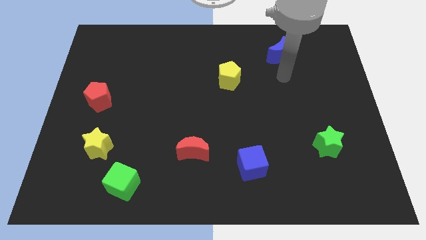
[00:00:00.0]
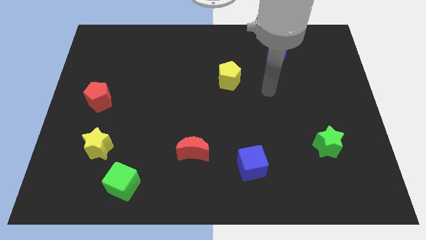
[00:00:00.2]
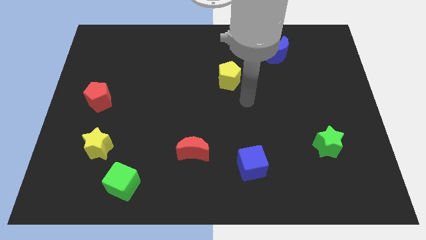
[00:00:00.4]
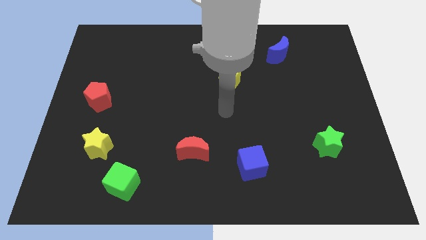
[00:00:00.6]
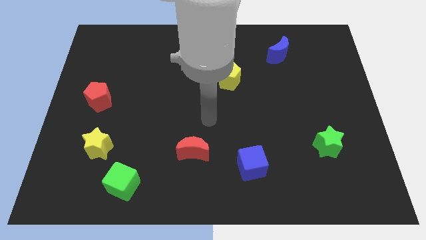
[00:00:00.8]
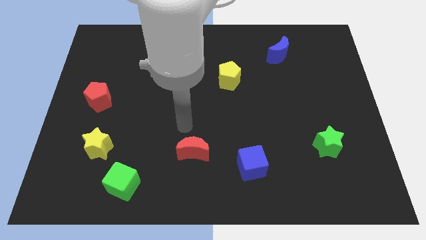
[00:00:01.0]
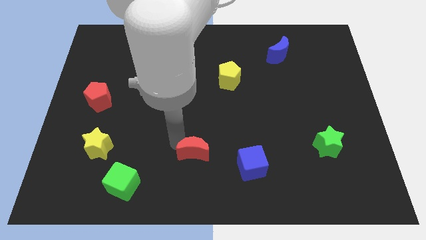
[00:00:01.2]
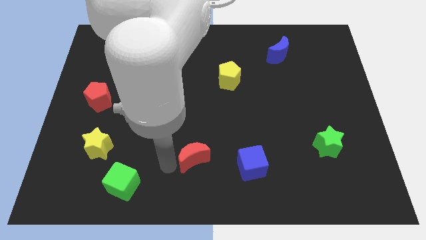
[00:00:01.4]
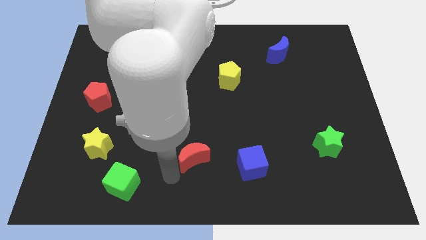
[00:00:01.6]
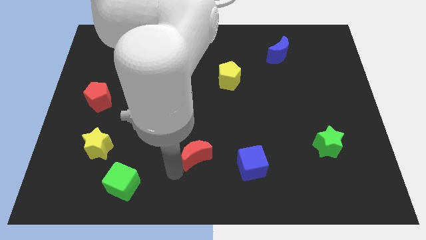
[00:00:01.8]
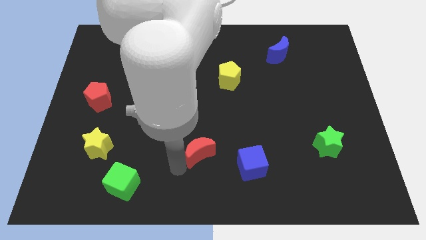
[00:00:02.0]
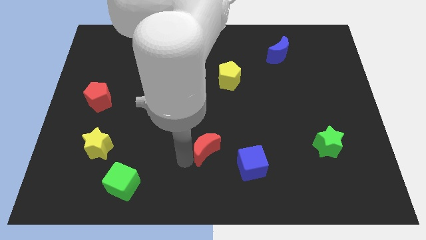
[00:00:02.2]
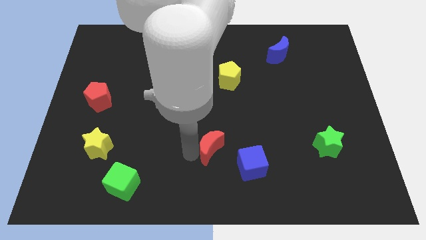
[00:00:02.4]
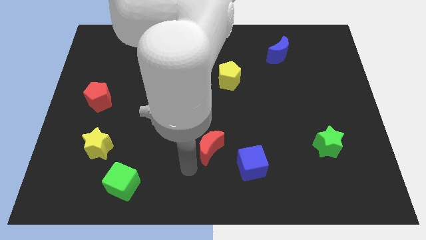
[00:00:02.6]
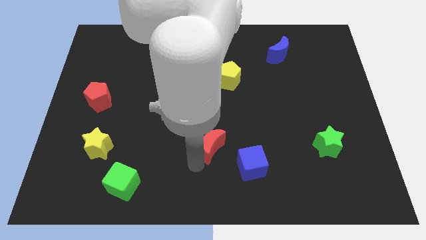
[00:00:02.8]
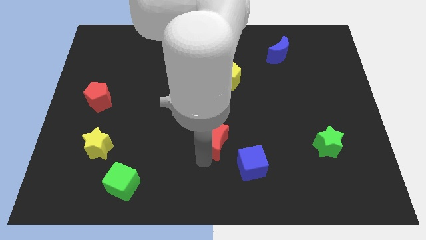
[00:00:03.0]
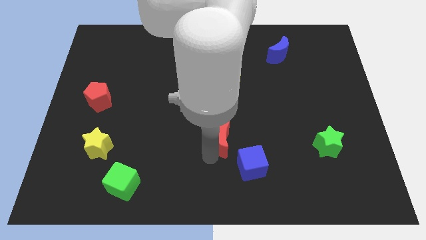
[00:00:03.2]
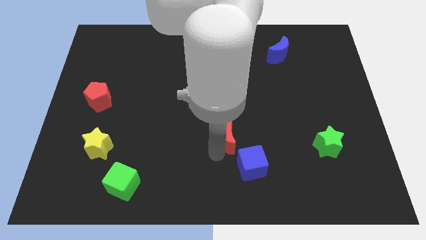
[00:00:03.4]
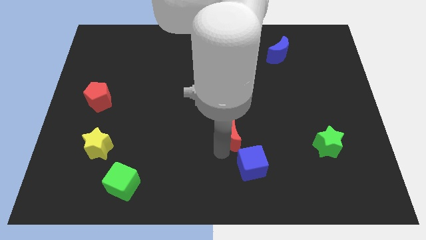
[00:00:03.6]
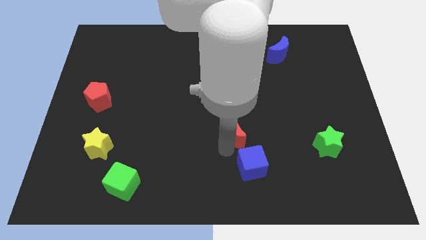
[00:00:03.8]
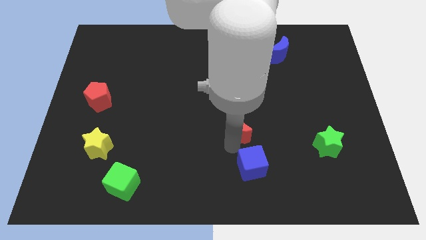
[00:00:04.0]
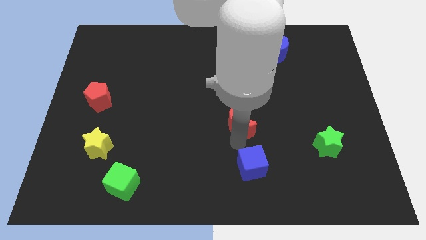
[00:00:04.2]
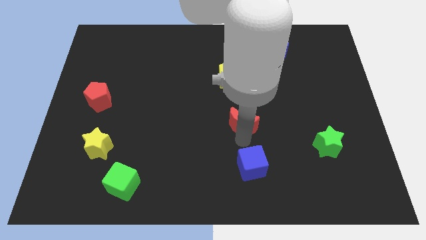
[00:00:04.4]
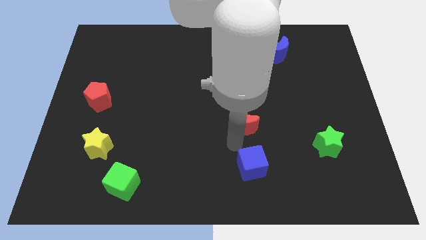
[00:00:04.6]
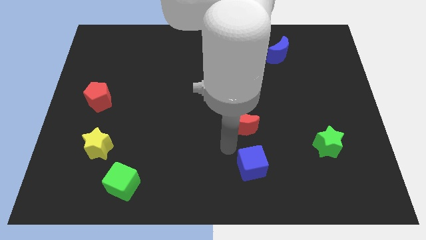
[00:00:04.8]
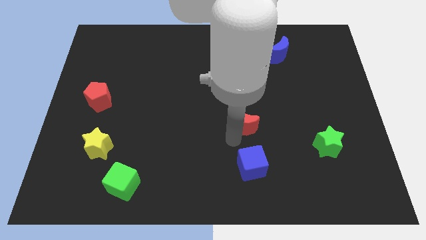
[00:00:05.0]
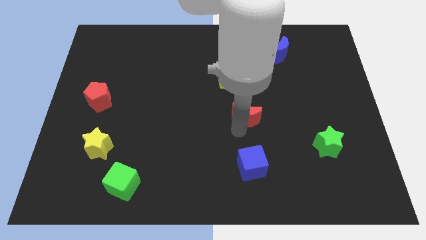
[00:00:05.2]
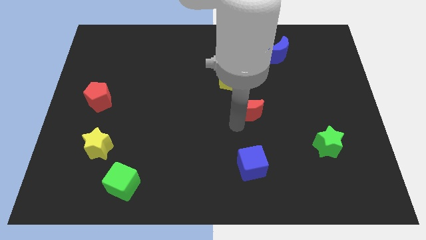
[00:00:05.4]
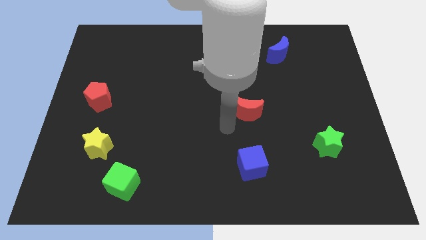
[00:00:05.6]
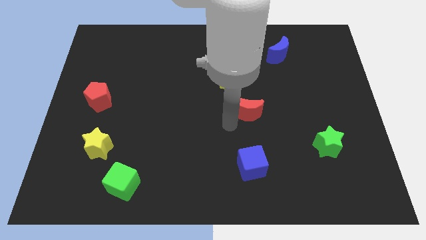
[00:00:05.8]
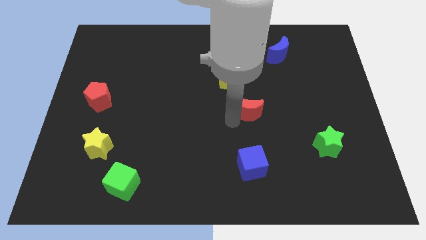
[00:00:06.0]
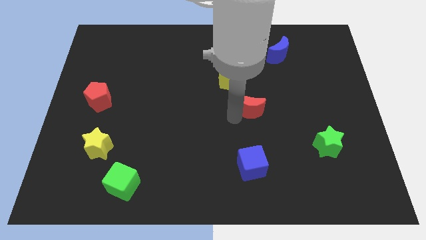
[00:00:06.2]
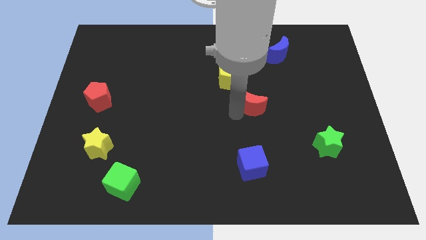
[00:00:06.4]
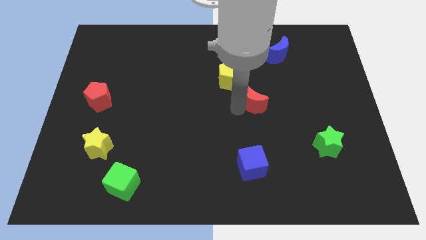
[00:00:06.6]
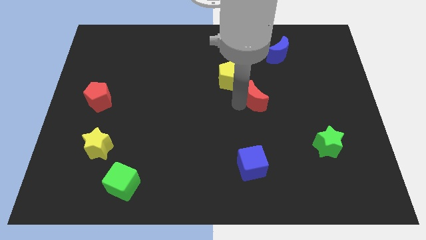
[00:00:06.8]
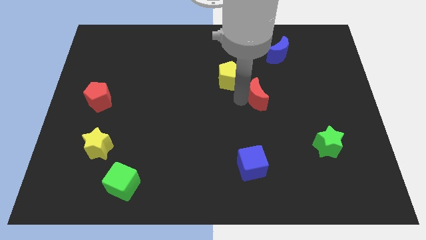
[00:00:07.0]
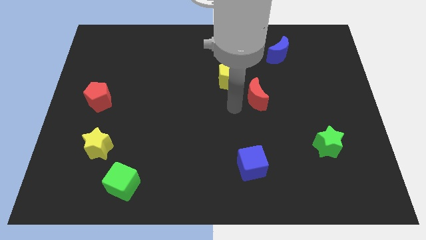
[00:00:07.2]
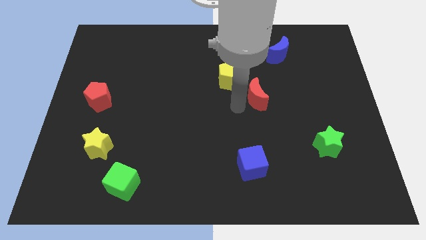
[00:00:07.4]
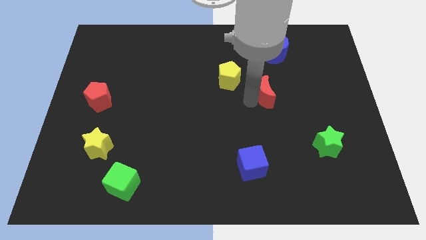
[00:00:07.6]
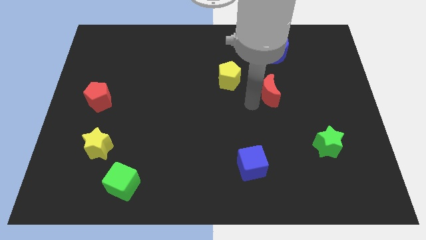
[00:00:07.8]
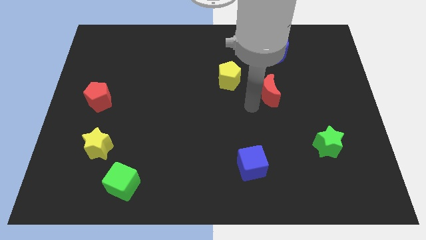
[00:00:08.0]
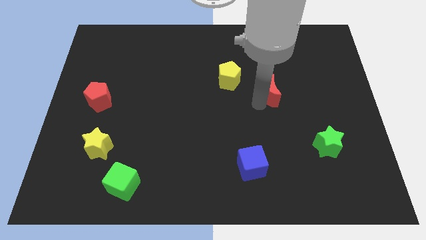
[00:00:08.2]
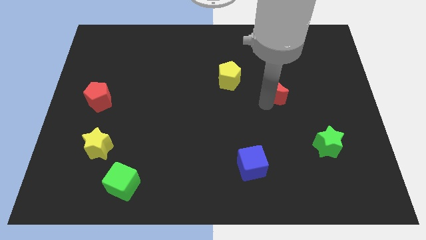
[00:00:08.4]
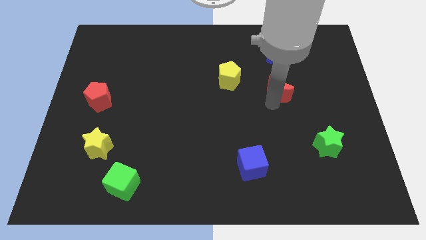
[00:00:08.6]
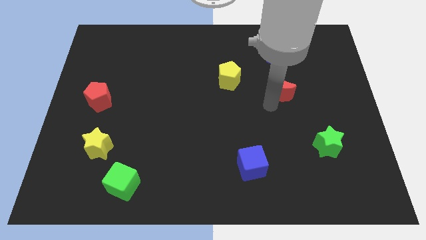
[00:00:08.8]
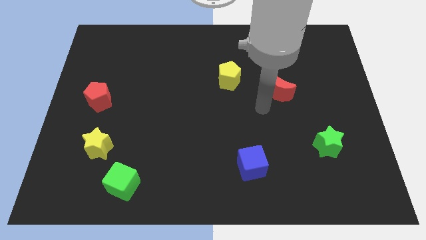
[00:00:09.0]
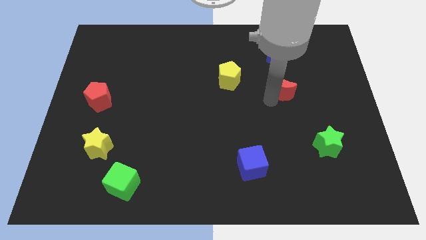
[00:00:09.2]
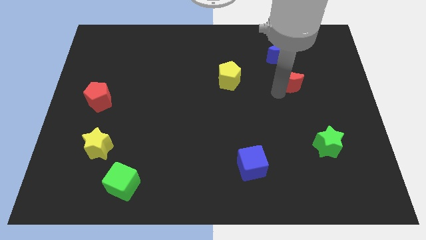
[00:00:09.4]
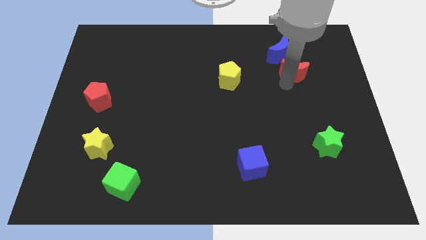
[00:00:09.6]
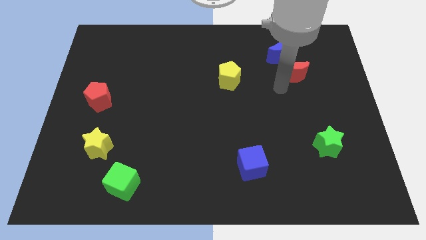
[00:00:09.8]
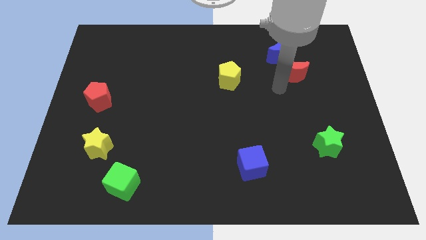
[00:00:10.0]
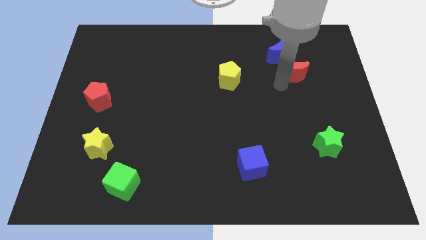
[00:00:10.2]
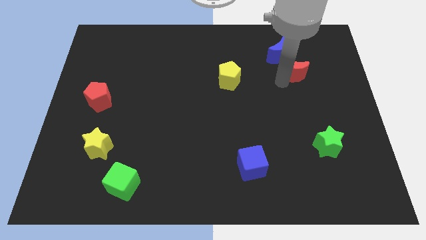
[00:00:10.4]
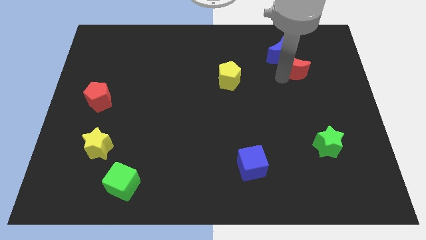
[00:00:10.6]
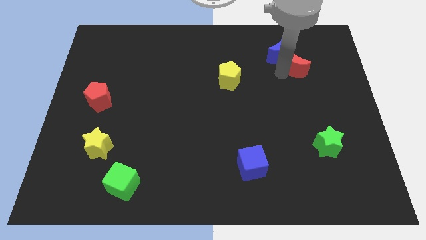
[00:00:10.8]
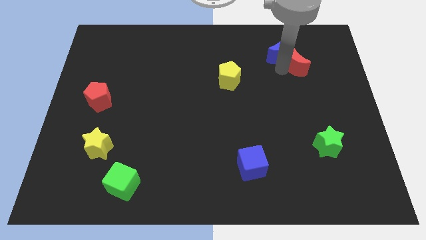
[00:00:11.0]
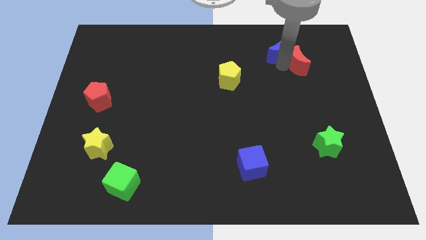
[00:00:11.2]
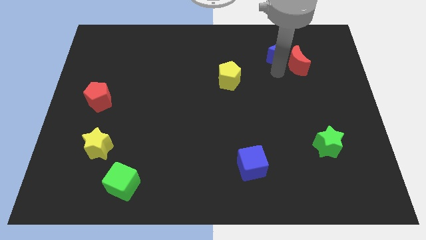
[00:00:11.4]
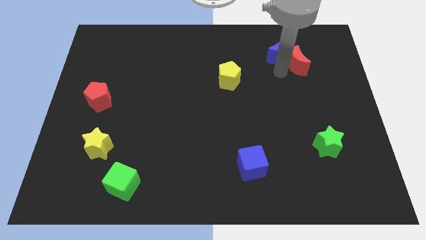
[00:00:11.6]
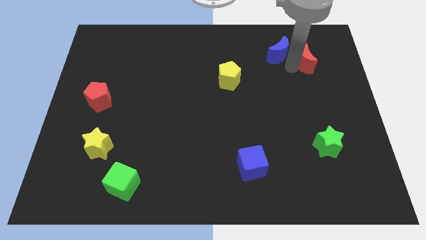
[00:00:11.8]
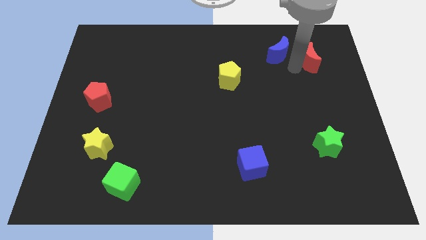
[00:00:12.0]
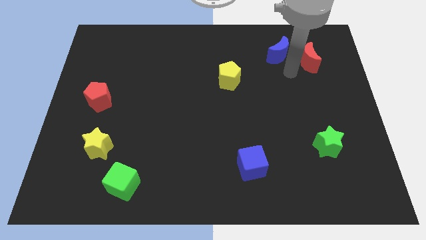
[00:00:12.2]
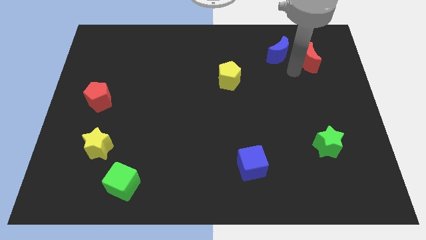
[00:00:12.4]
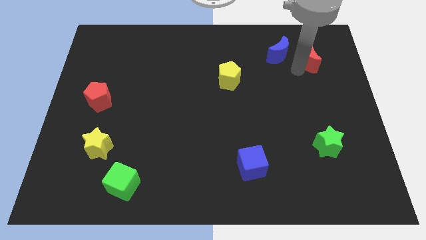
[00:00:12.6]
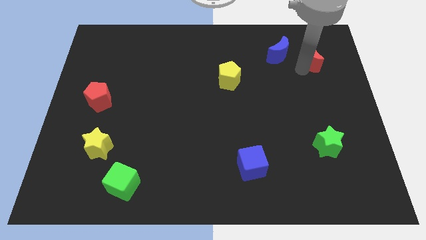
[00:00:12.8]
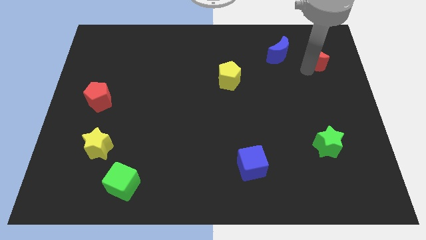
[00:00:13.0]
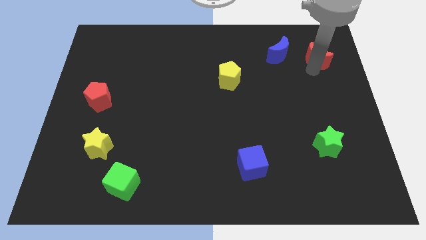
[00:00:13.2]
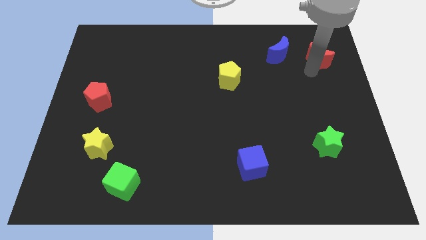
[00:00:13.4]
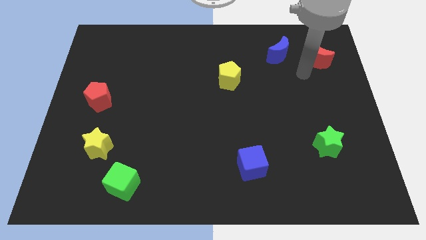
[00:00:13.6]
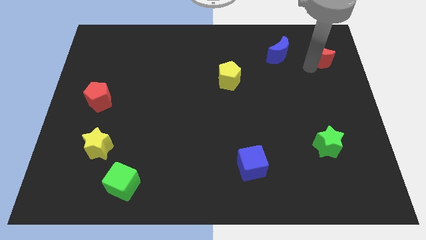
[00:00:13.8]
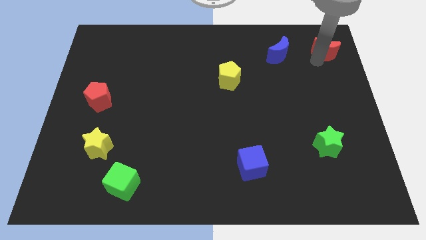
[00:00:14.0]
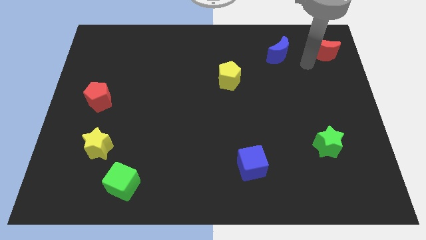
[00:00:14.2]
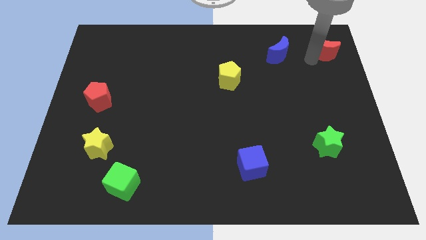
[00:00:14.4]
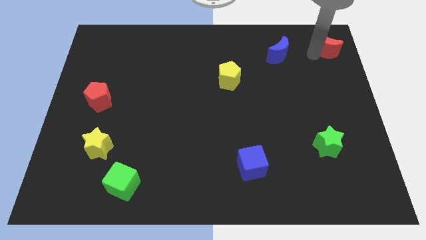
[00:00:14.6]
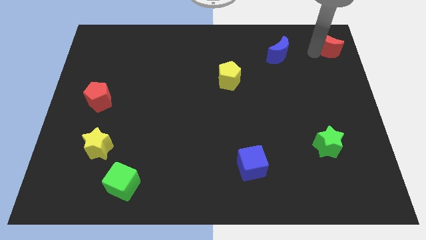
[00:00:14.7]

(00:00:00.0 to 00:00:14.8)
put the red moon to the top right
